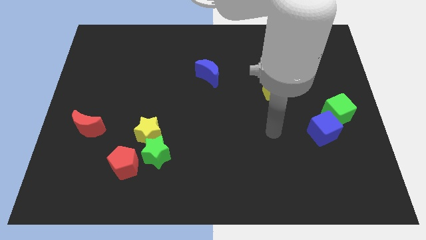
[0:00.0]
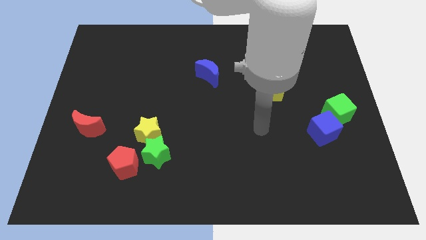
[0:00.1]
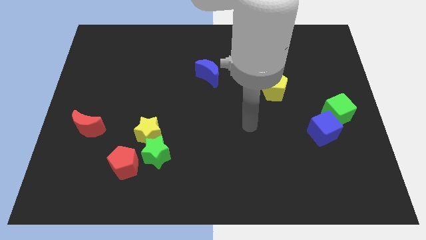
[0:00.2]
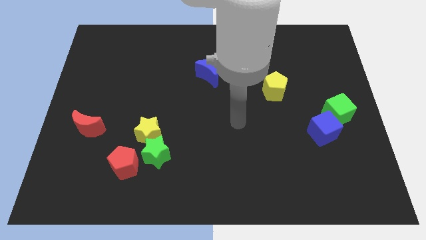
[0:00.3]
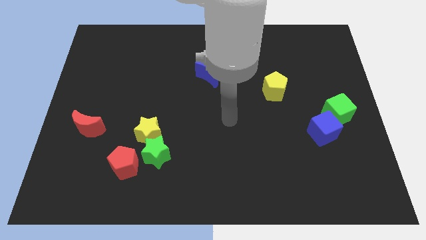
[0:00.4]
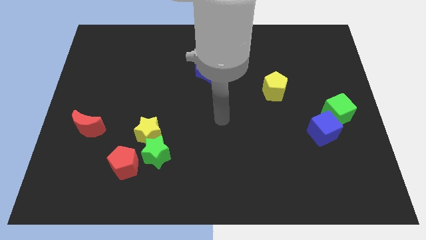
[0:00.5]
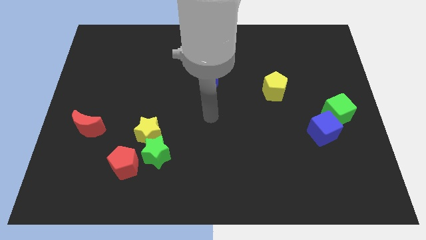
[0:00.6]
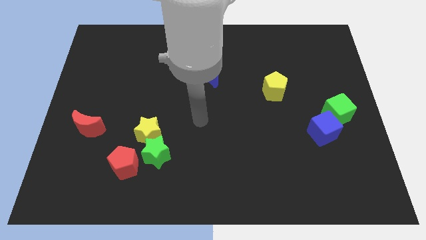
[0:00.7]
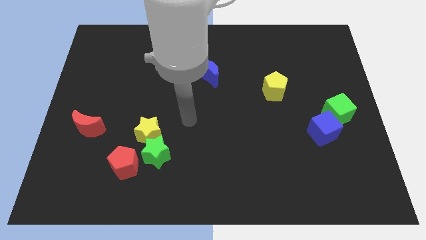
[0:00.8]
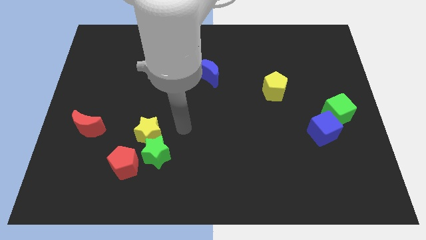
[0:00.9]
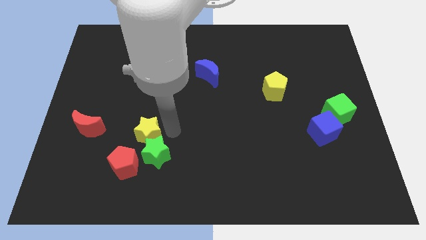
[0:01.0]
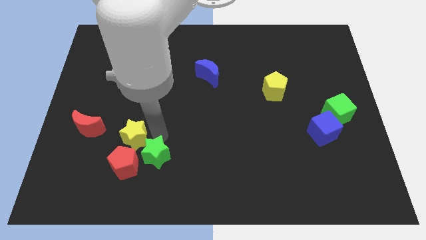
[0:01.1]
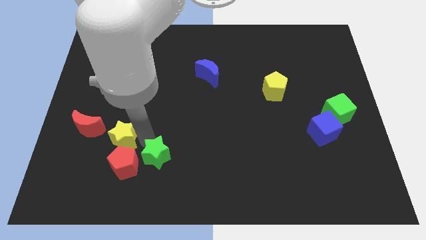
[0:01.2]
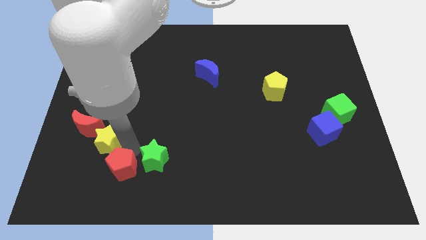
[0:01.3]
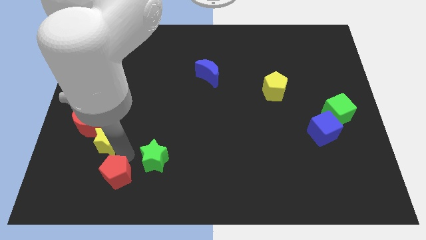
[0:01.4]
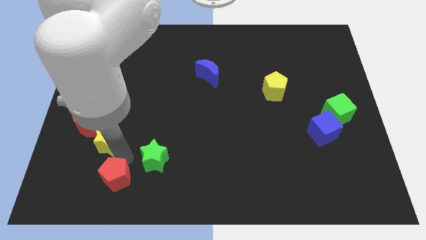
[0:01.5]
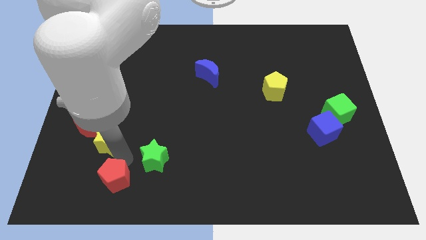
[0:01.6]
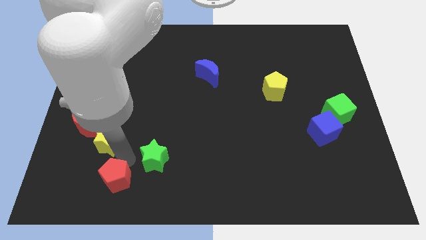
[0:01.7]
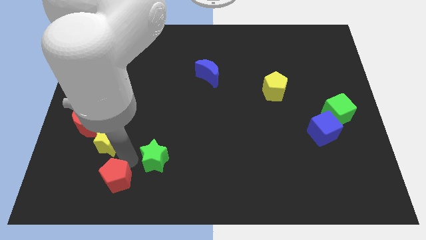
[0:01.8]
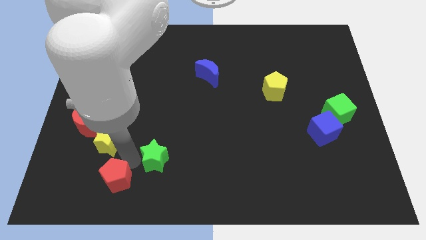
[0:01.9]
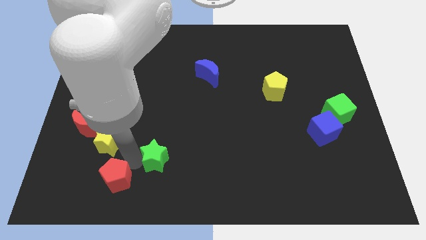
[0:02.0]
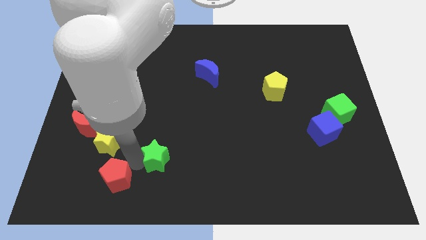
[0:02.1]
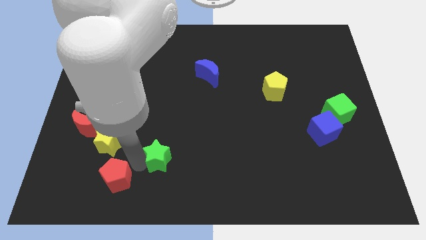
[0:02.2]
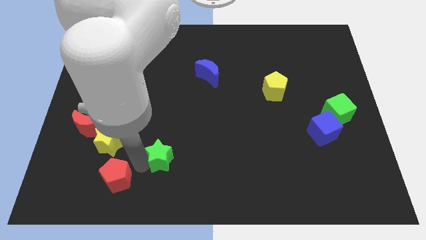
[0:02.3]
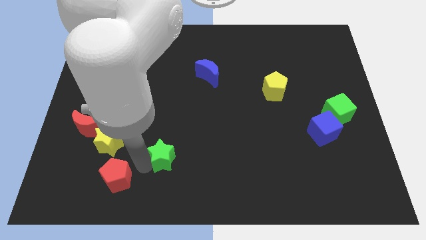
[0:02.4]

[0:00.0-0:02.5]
move the green star away from the yellow star and red pentagon

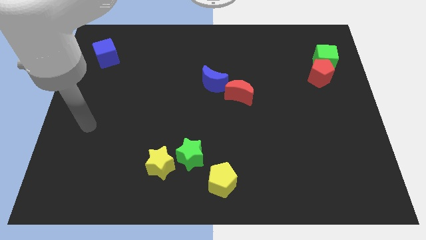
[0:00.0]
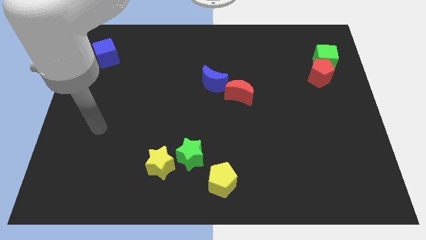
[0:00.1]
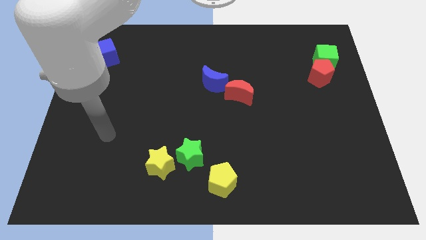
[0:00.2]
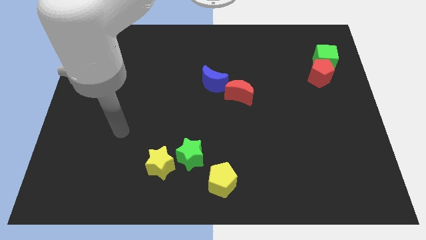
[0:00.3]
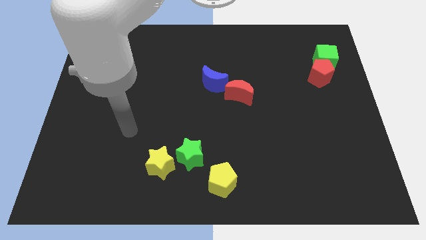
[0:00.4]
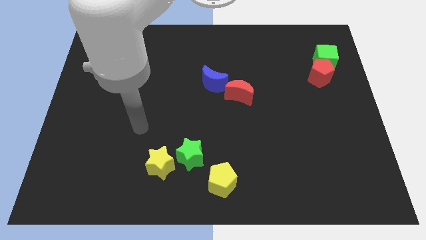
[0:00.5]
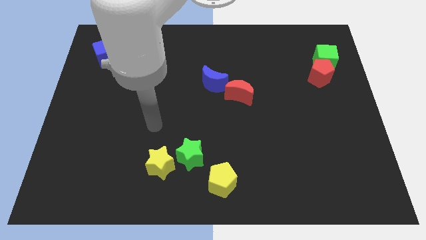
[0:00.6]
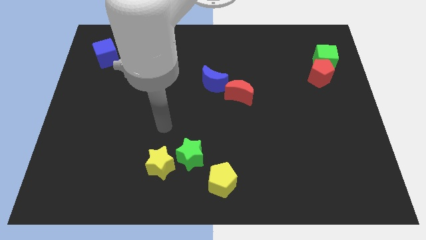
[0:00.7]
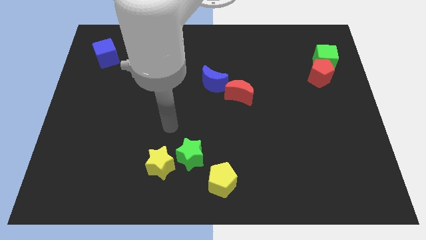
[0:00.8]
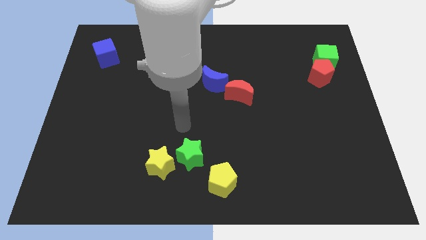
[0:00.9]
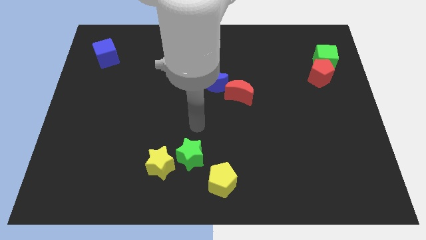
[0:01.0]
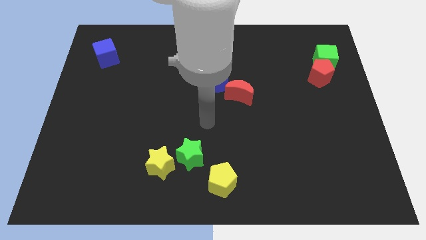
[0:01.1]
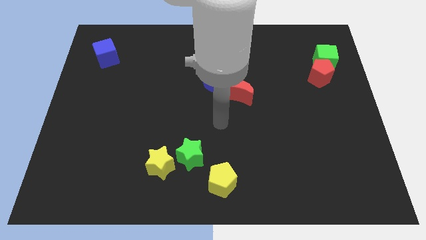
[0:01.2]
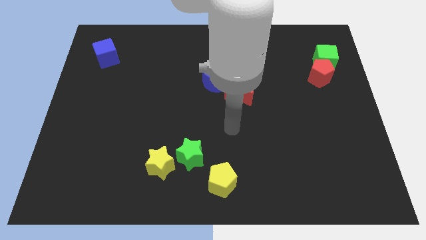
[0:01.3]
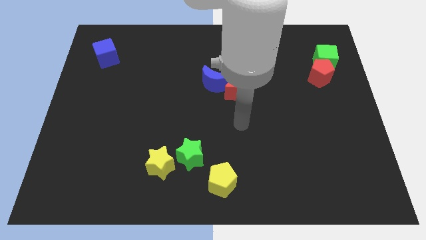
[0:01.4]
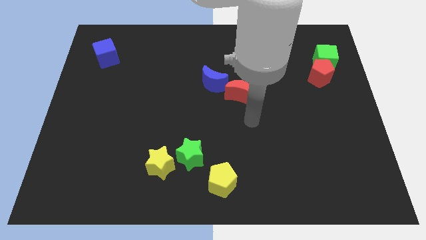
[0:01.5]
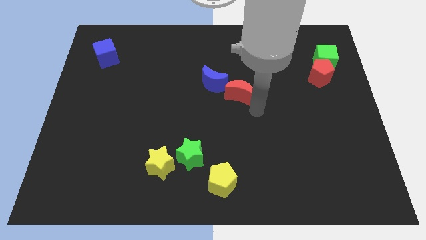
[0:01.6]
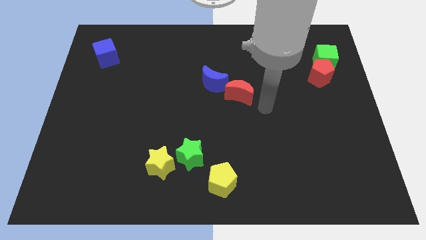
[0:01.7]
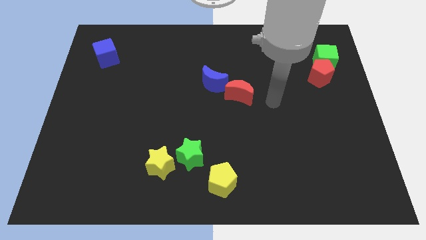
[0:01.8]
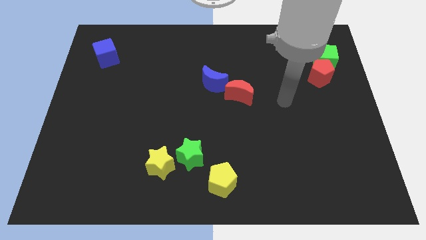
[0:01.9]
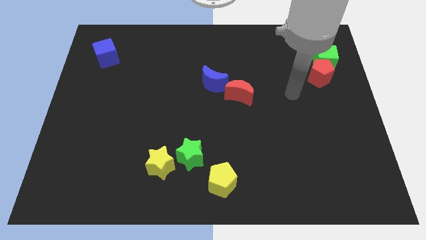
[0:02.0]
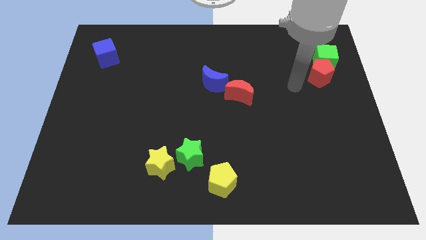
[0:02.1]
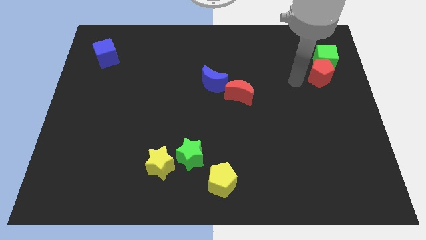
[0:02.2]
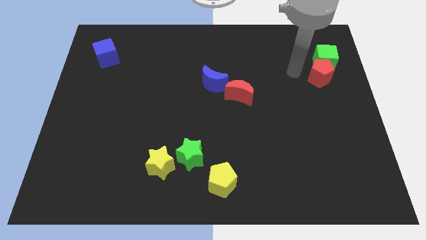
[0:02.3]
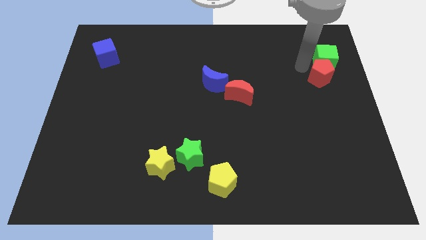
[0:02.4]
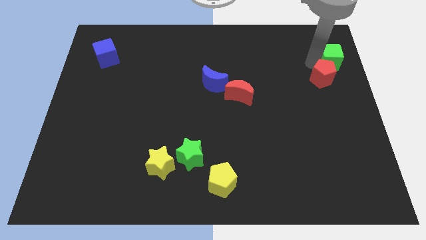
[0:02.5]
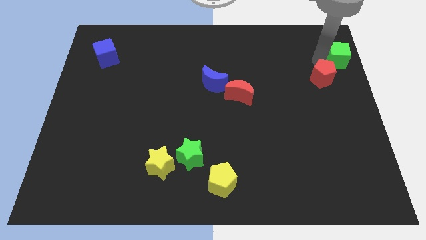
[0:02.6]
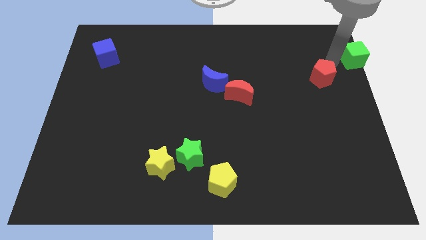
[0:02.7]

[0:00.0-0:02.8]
separate the red pentagon from the green cube

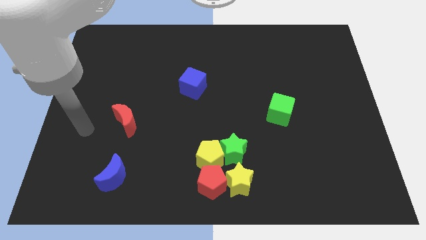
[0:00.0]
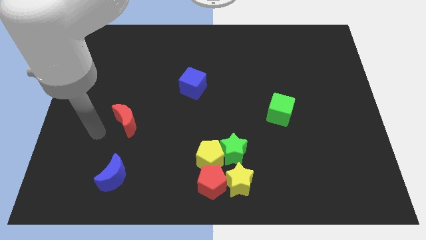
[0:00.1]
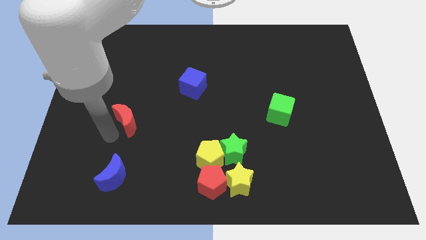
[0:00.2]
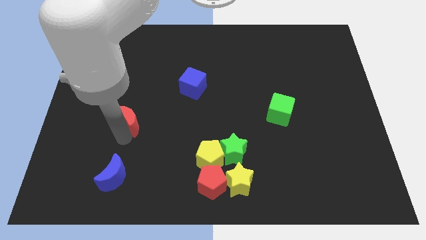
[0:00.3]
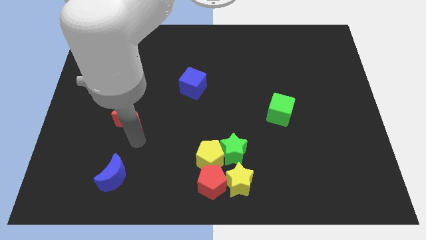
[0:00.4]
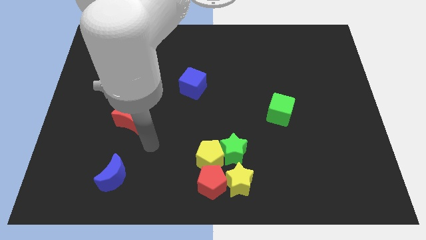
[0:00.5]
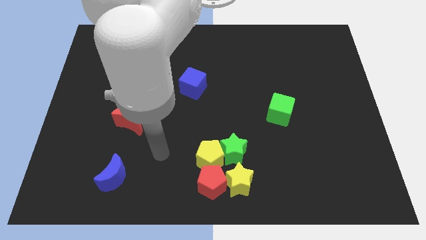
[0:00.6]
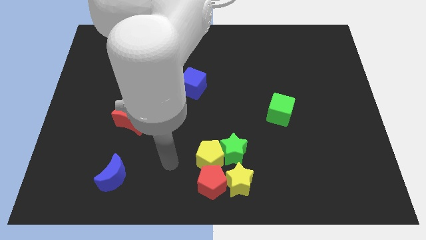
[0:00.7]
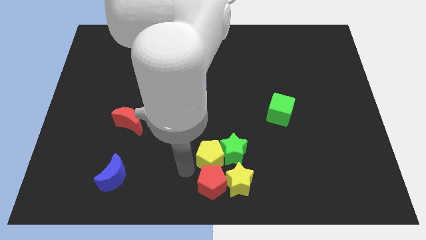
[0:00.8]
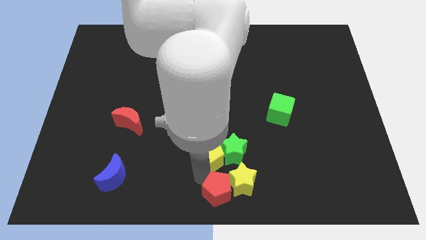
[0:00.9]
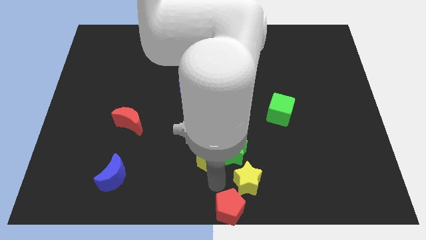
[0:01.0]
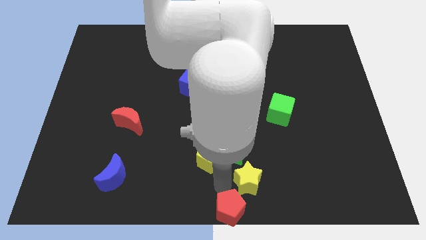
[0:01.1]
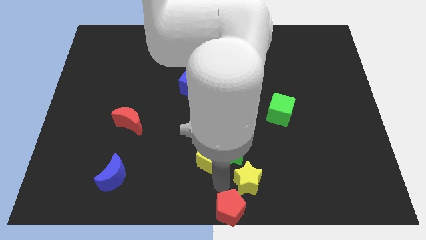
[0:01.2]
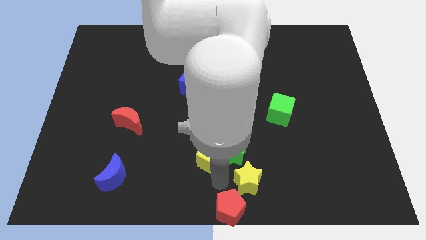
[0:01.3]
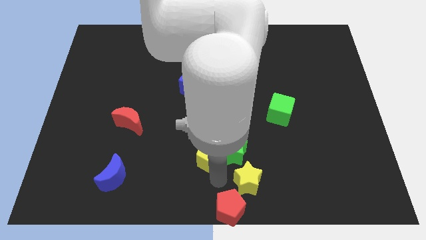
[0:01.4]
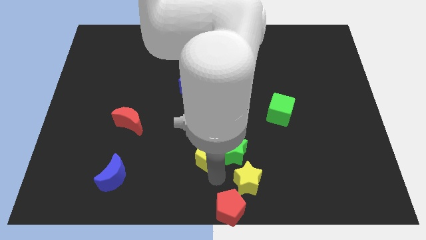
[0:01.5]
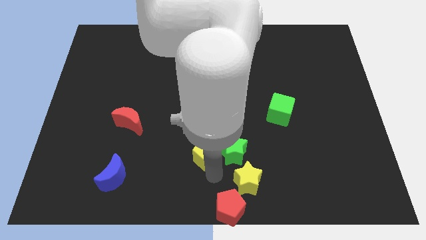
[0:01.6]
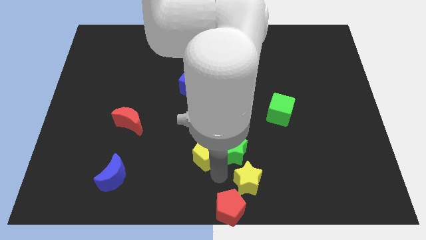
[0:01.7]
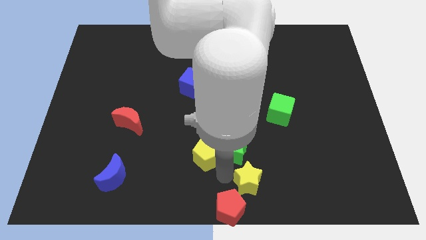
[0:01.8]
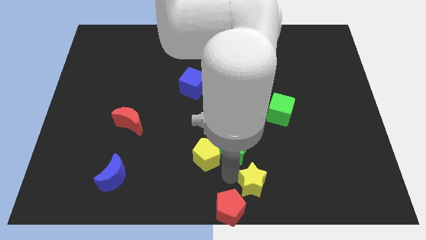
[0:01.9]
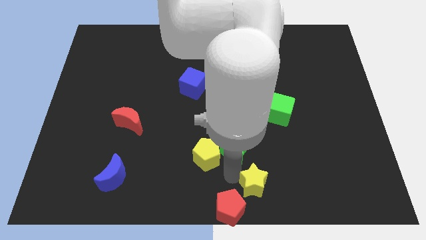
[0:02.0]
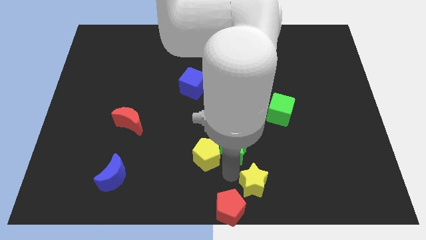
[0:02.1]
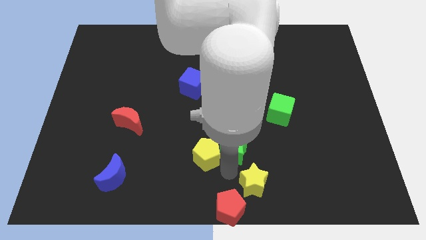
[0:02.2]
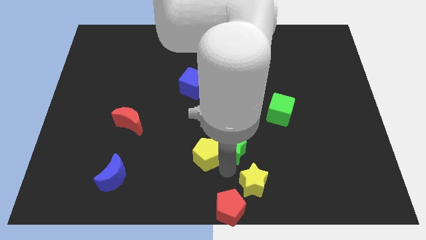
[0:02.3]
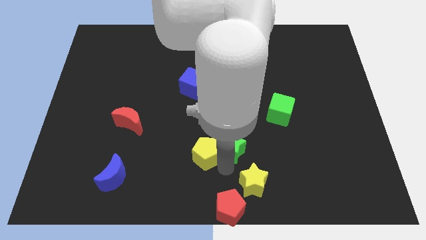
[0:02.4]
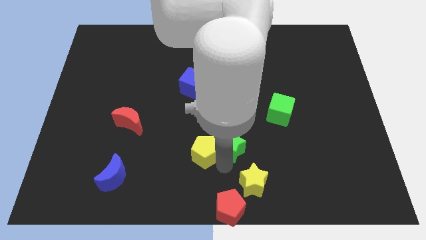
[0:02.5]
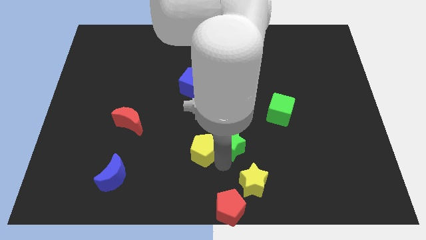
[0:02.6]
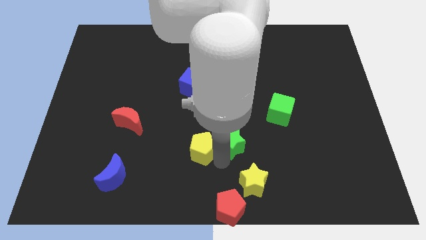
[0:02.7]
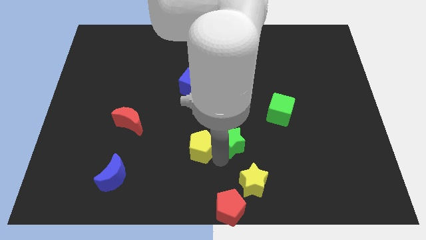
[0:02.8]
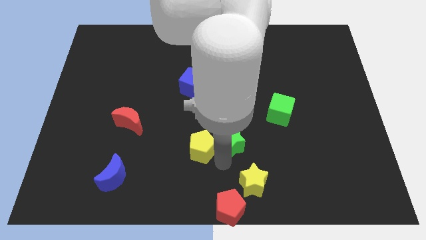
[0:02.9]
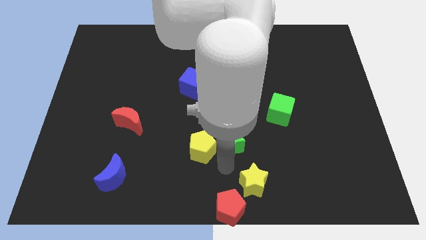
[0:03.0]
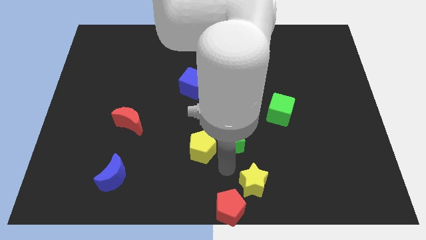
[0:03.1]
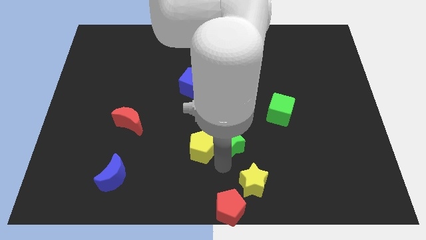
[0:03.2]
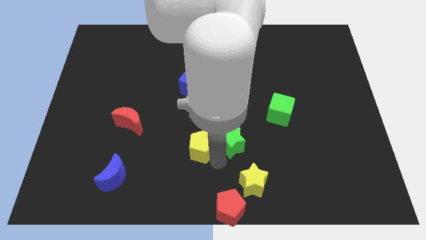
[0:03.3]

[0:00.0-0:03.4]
move the yellow pentagon away from the green star, red pentagon, and yellow star

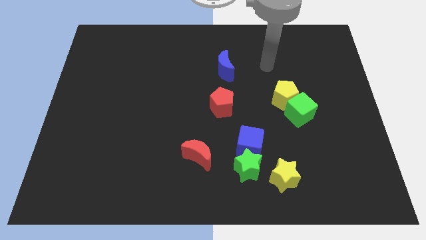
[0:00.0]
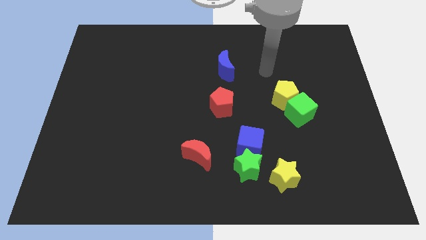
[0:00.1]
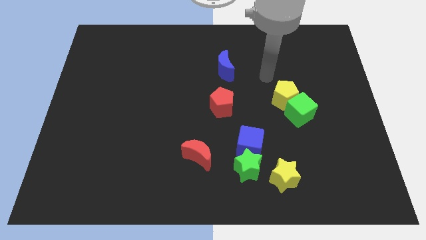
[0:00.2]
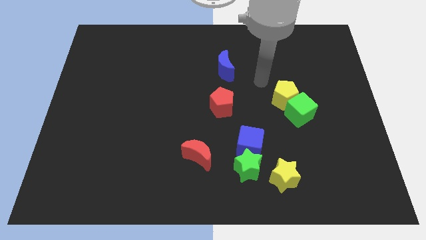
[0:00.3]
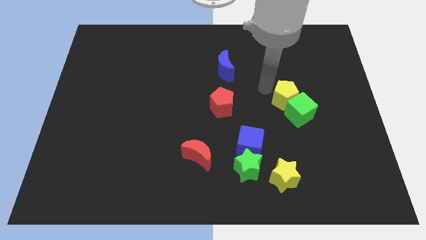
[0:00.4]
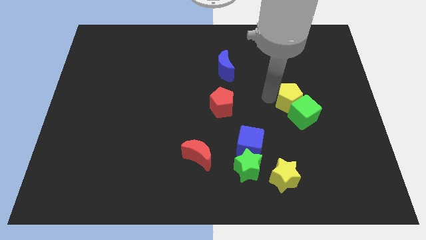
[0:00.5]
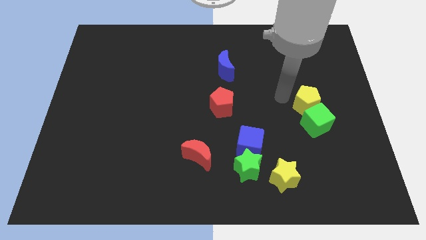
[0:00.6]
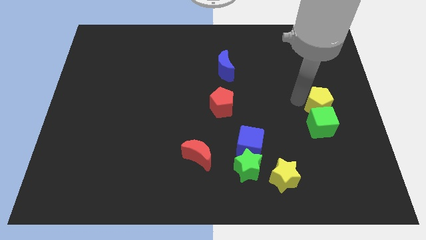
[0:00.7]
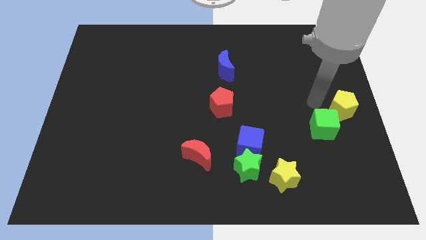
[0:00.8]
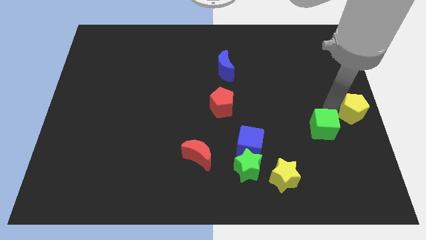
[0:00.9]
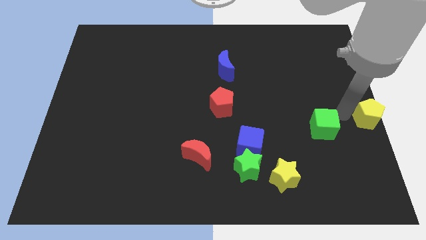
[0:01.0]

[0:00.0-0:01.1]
pull the green cube apart from the yellow pentagon
